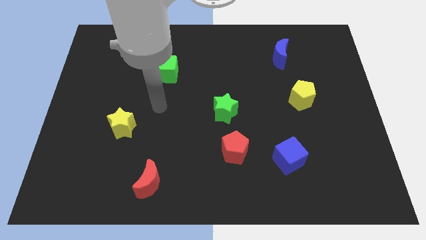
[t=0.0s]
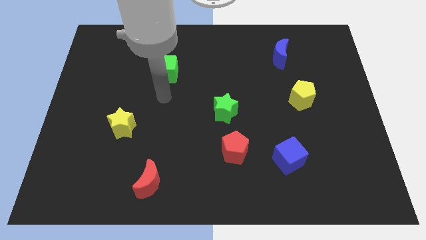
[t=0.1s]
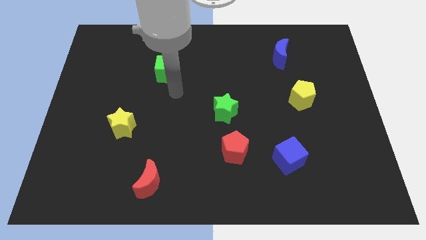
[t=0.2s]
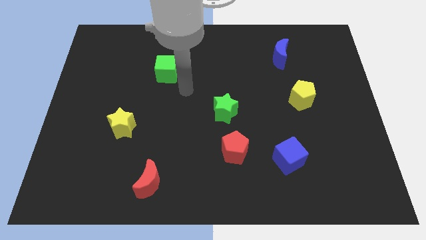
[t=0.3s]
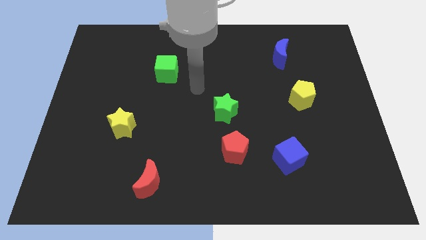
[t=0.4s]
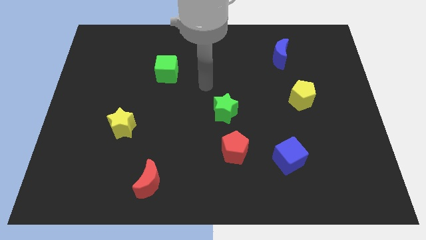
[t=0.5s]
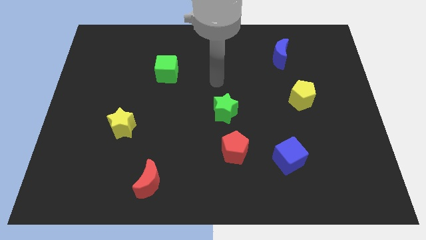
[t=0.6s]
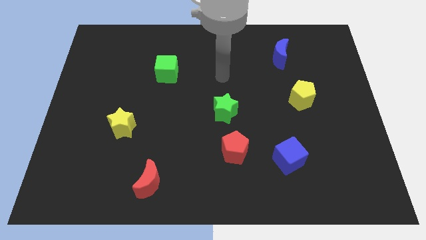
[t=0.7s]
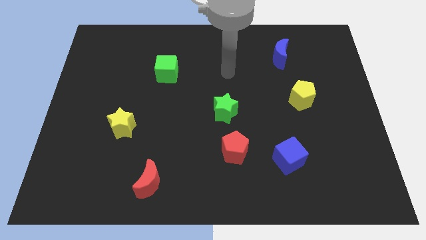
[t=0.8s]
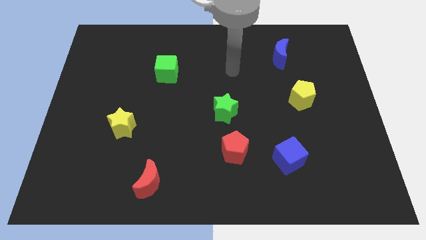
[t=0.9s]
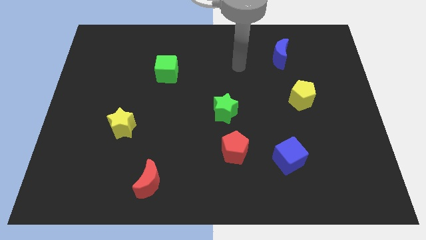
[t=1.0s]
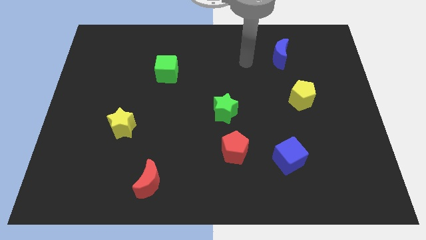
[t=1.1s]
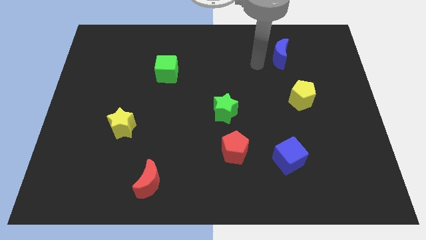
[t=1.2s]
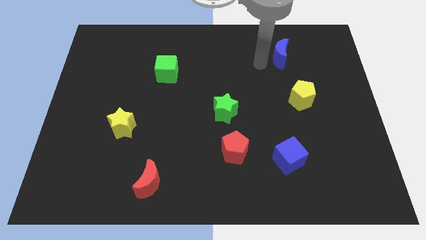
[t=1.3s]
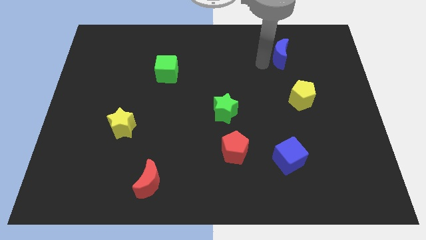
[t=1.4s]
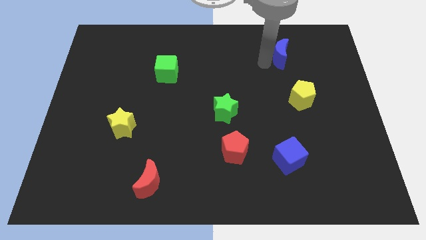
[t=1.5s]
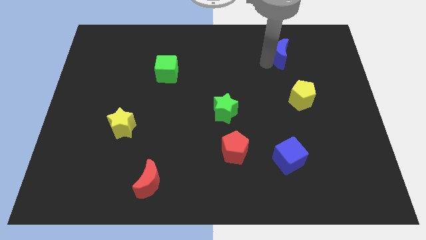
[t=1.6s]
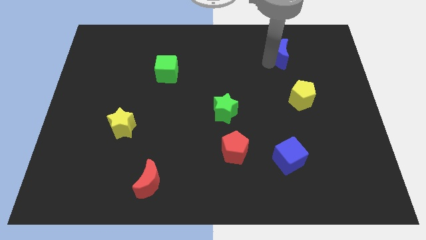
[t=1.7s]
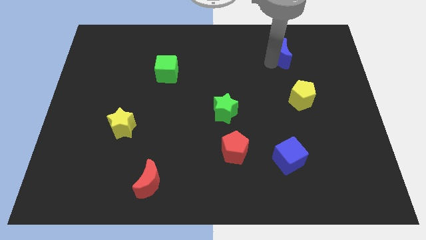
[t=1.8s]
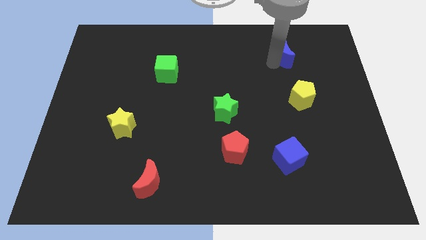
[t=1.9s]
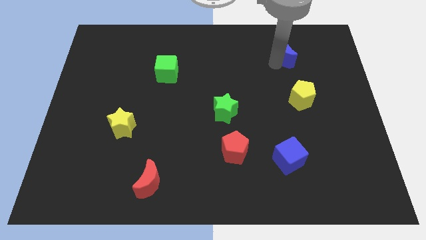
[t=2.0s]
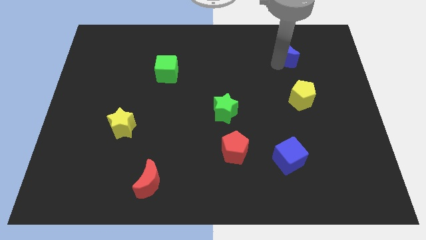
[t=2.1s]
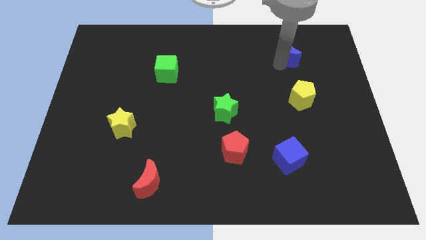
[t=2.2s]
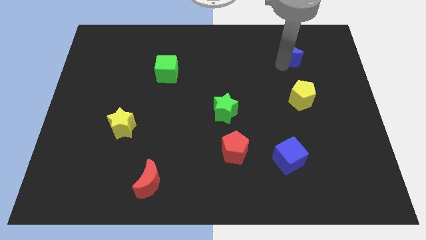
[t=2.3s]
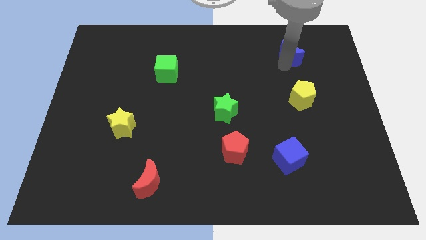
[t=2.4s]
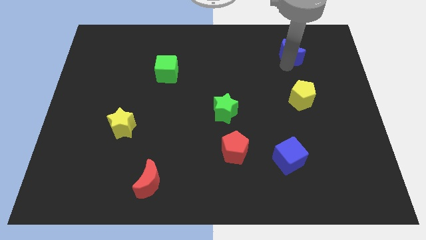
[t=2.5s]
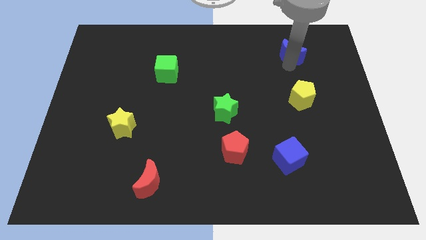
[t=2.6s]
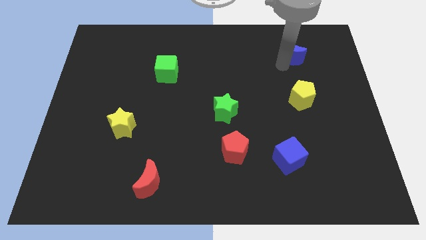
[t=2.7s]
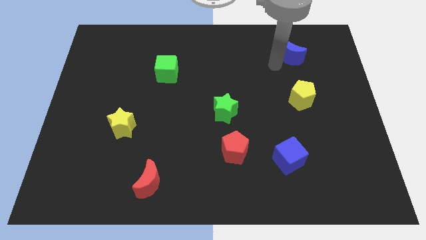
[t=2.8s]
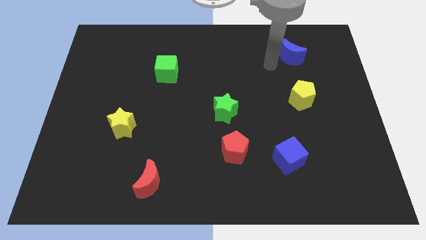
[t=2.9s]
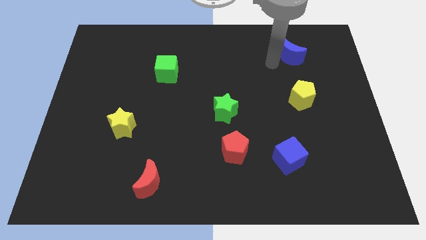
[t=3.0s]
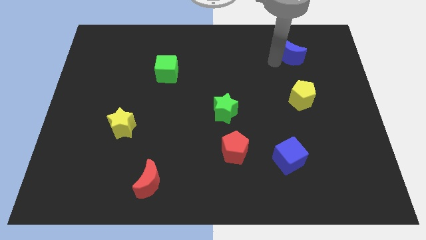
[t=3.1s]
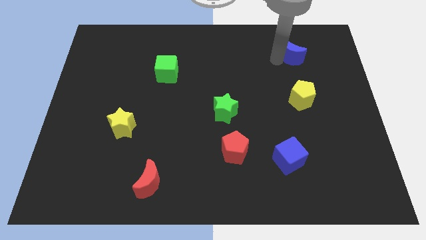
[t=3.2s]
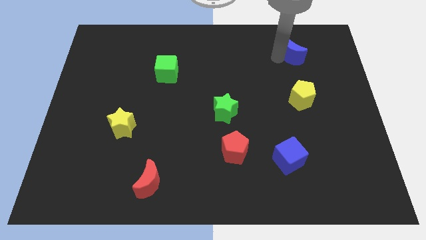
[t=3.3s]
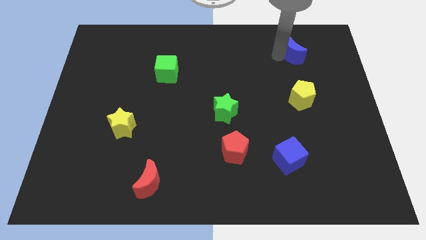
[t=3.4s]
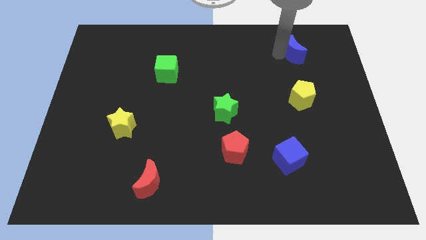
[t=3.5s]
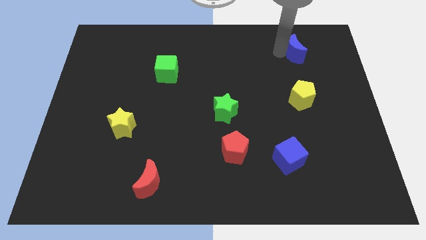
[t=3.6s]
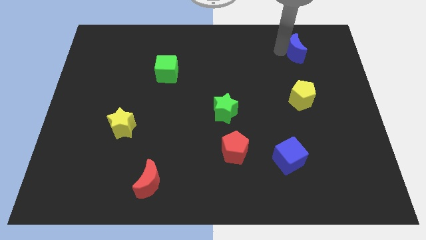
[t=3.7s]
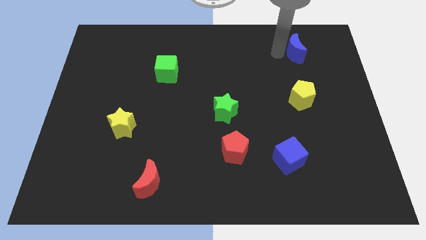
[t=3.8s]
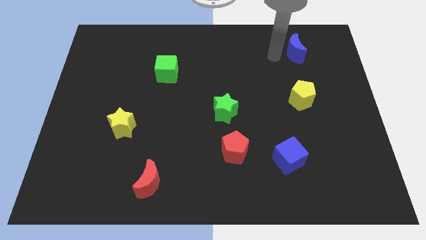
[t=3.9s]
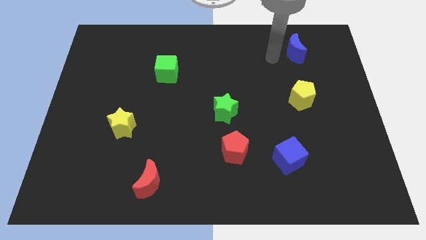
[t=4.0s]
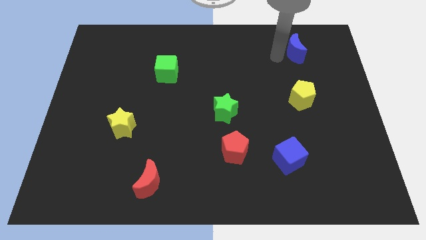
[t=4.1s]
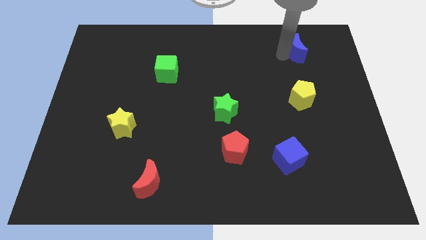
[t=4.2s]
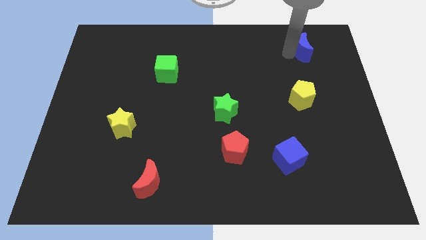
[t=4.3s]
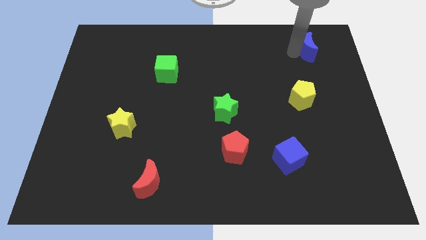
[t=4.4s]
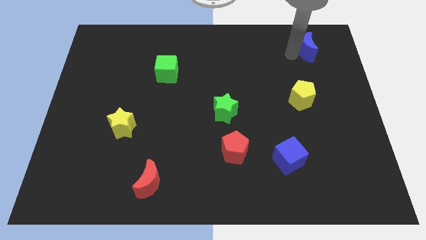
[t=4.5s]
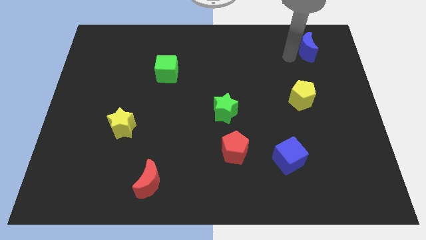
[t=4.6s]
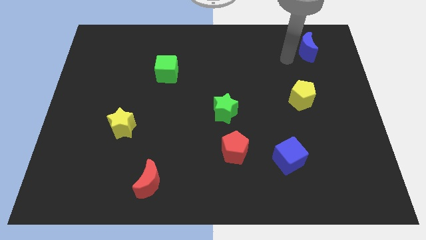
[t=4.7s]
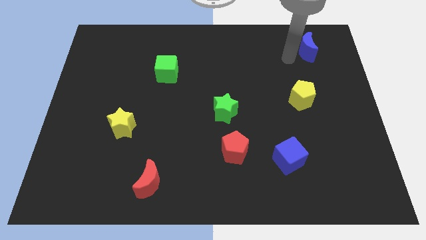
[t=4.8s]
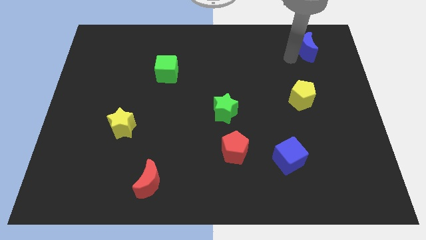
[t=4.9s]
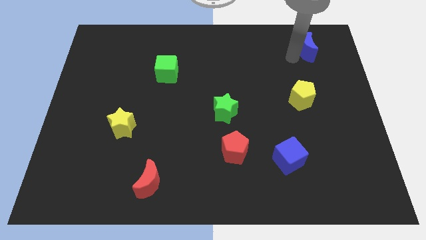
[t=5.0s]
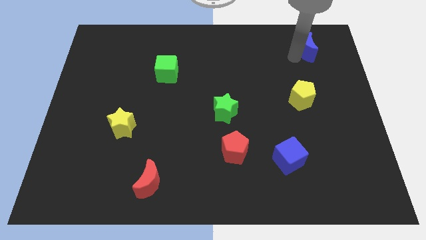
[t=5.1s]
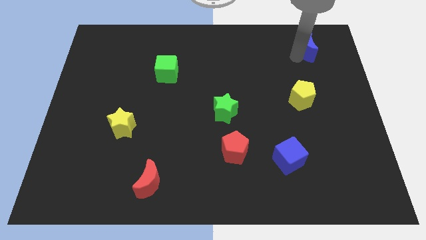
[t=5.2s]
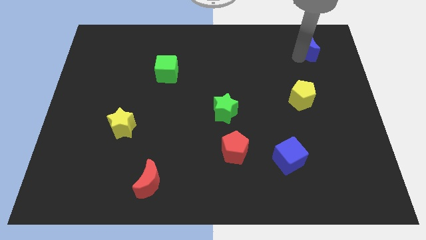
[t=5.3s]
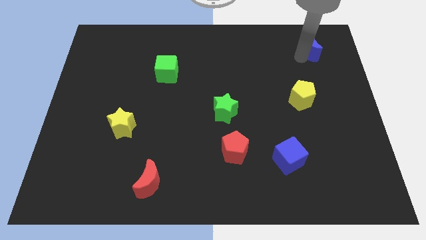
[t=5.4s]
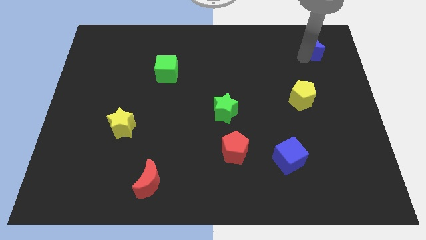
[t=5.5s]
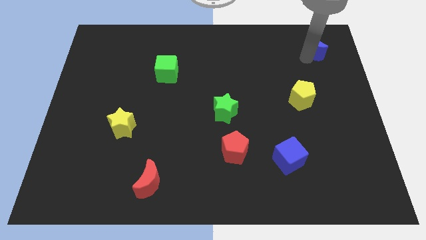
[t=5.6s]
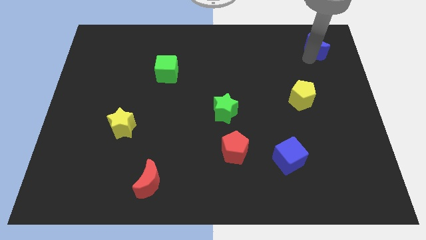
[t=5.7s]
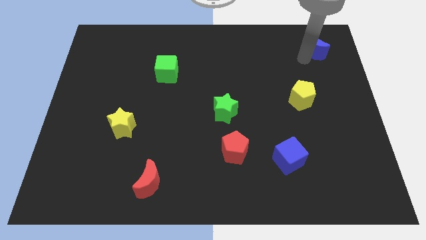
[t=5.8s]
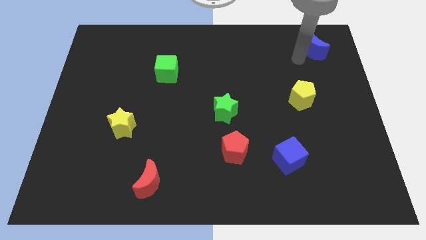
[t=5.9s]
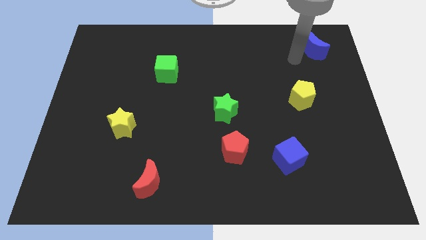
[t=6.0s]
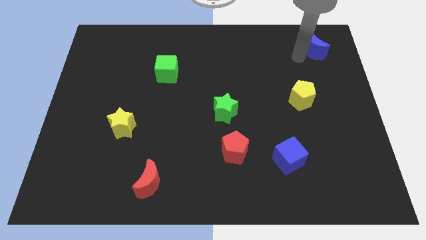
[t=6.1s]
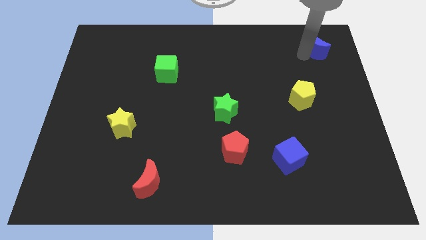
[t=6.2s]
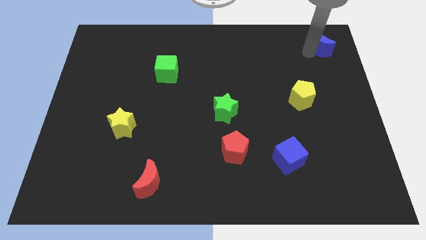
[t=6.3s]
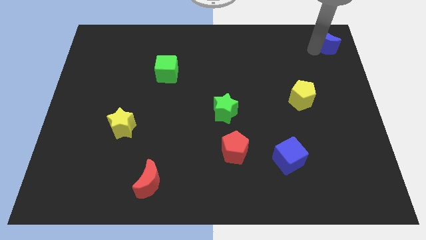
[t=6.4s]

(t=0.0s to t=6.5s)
put the blue moon to the top right
